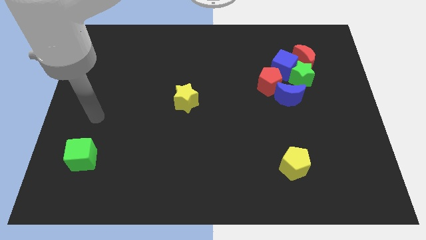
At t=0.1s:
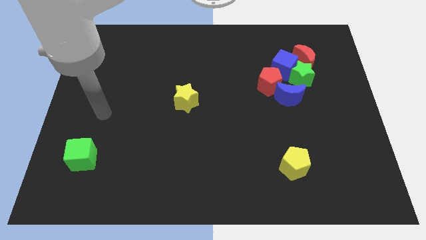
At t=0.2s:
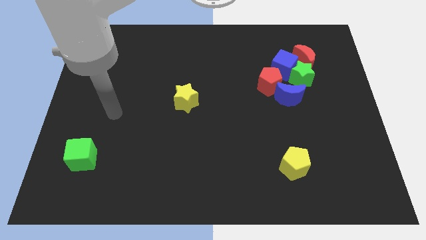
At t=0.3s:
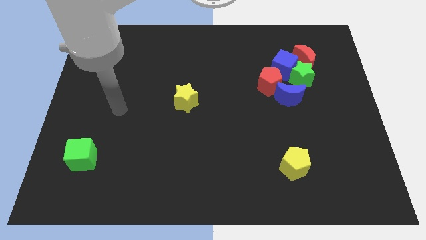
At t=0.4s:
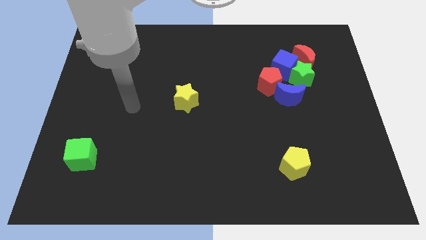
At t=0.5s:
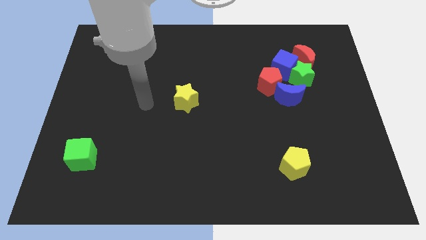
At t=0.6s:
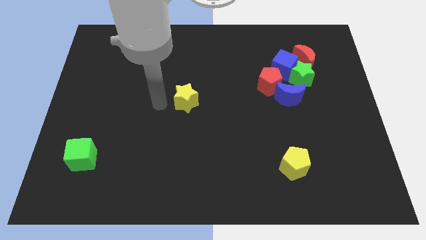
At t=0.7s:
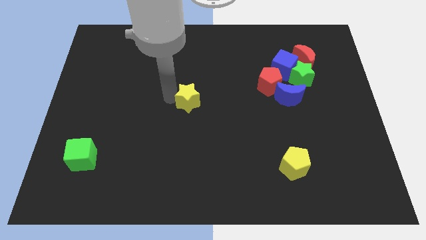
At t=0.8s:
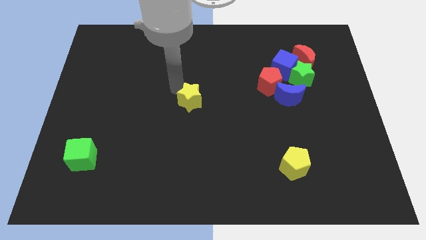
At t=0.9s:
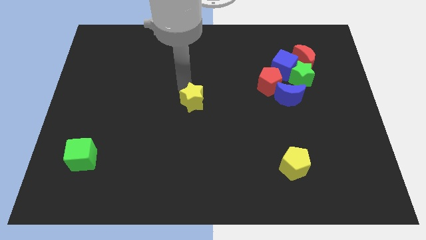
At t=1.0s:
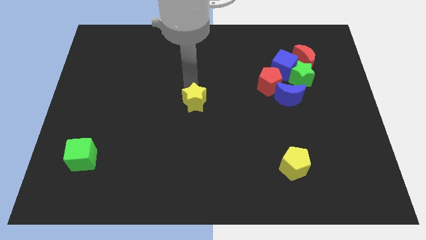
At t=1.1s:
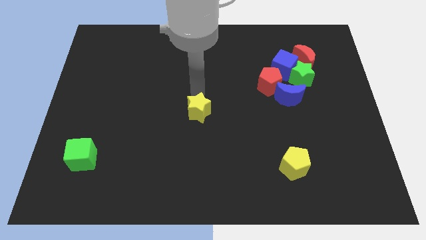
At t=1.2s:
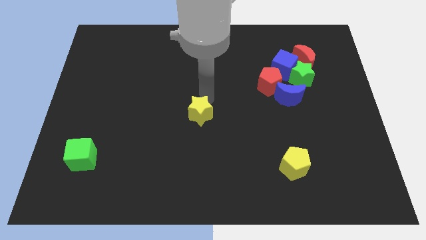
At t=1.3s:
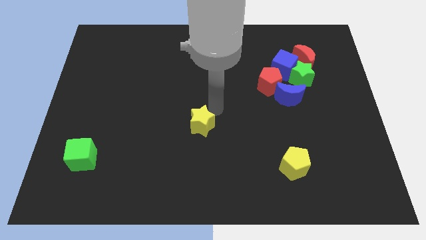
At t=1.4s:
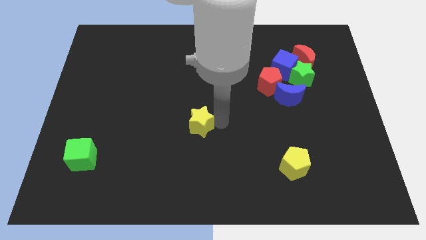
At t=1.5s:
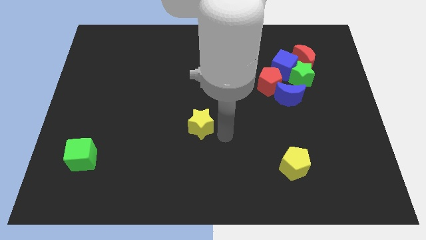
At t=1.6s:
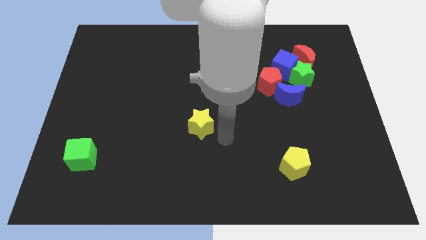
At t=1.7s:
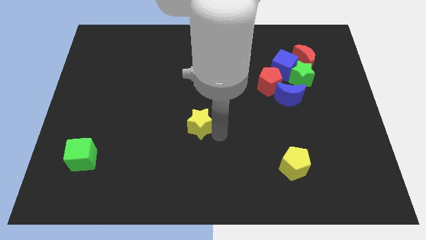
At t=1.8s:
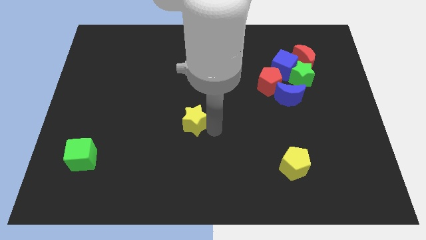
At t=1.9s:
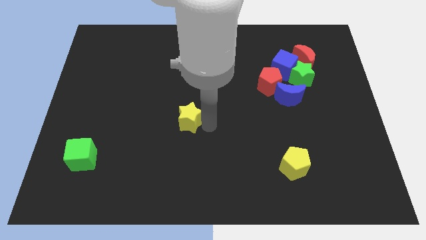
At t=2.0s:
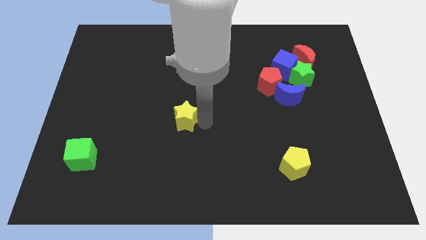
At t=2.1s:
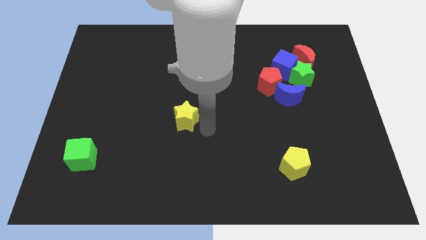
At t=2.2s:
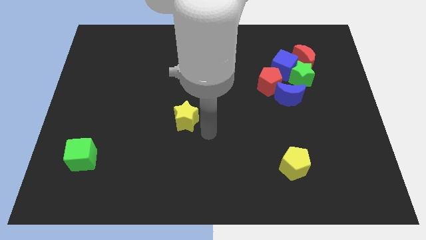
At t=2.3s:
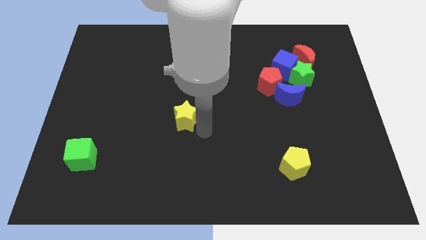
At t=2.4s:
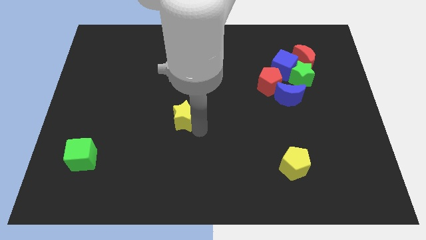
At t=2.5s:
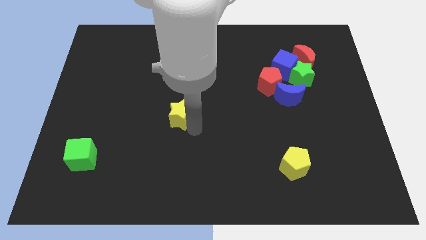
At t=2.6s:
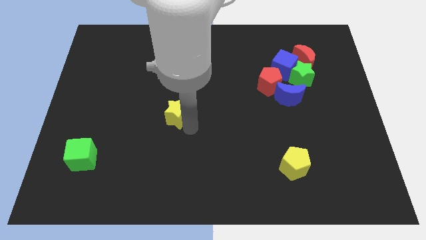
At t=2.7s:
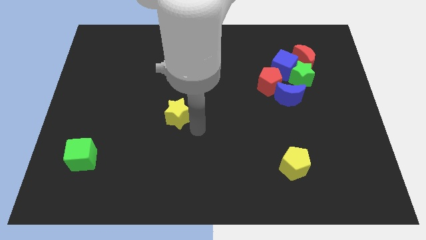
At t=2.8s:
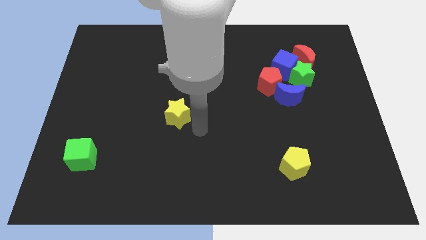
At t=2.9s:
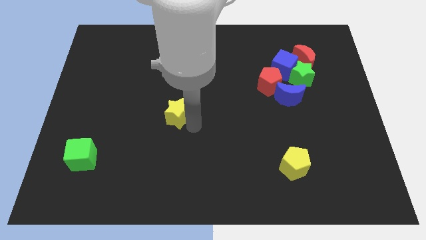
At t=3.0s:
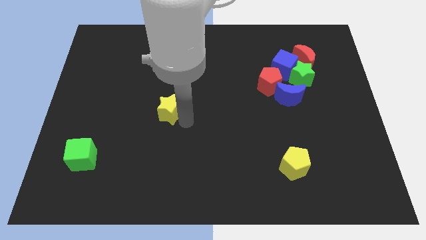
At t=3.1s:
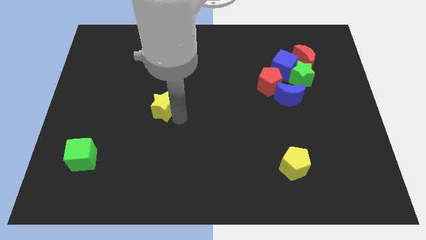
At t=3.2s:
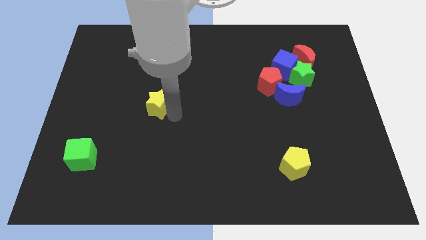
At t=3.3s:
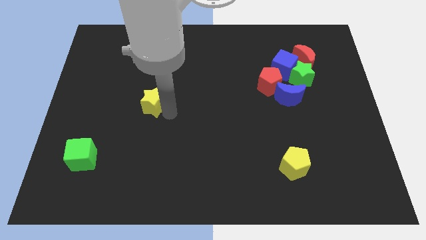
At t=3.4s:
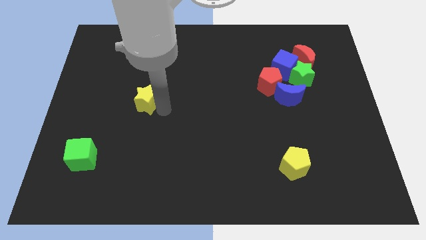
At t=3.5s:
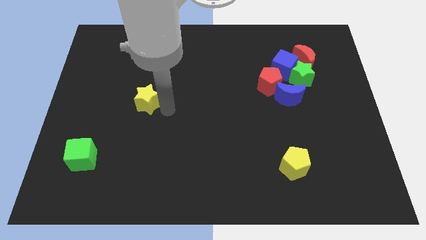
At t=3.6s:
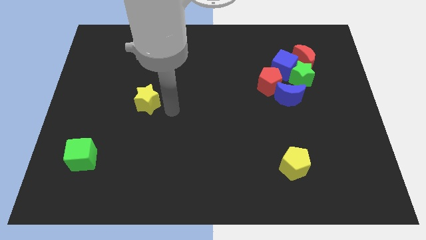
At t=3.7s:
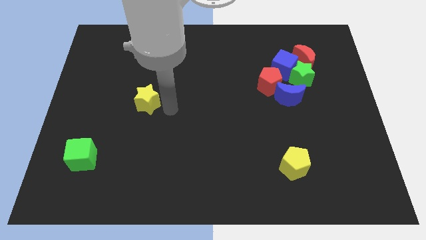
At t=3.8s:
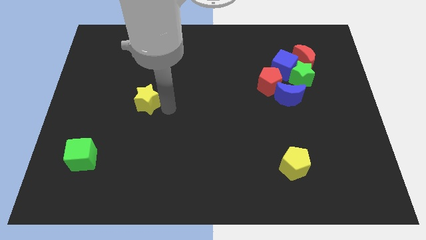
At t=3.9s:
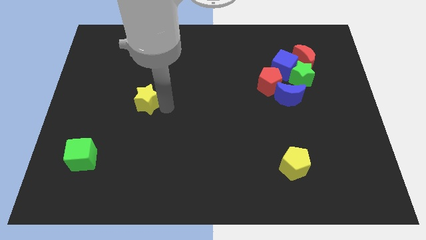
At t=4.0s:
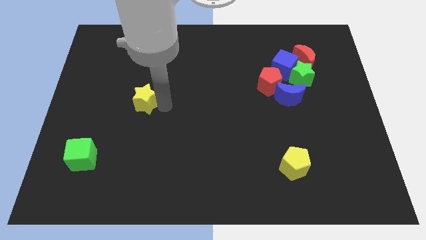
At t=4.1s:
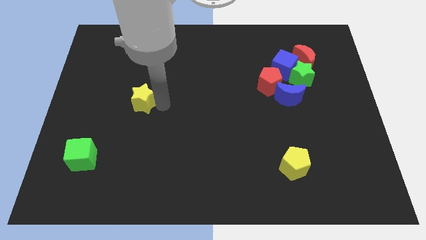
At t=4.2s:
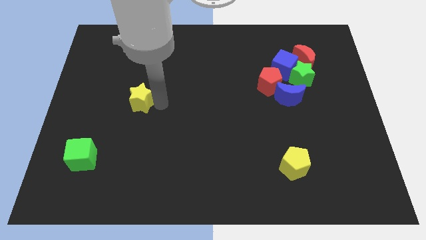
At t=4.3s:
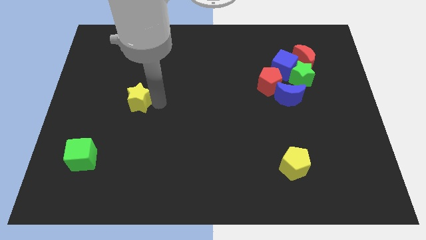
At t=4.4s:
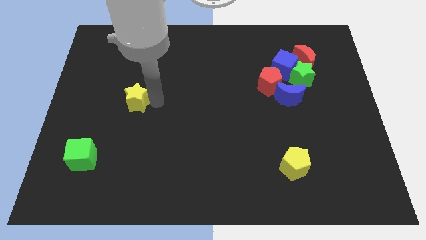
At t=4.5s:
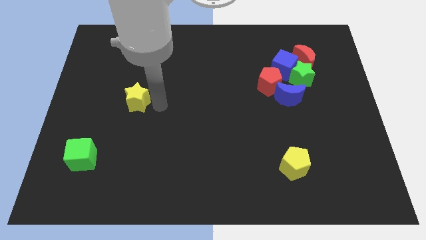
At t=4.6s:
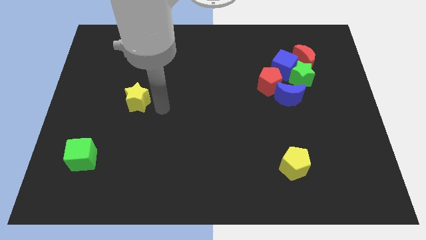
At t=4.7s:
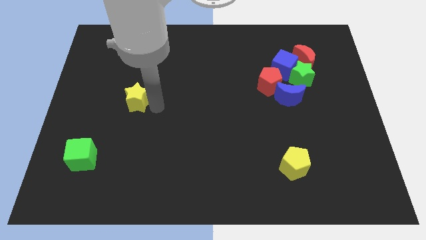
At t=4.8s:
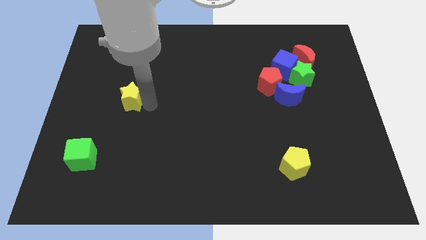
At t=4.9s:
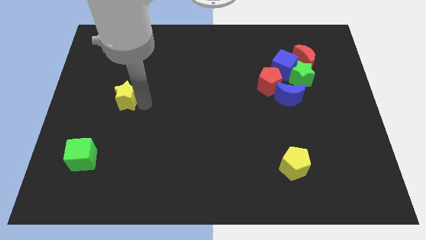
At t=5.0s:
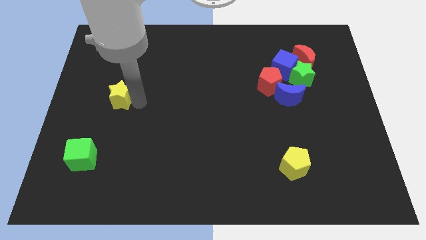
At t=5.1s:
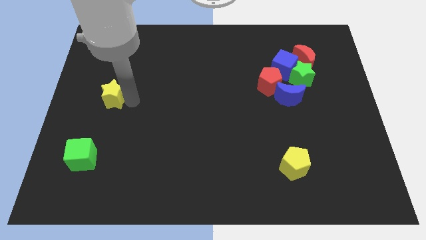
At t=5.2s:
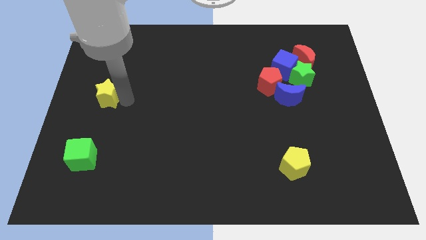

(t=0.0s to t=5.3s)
slide the yellow star to the left side of the board

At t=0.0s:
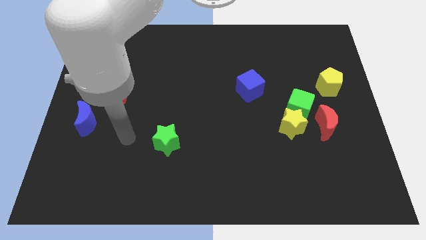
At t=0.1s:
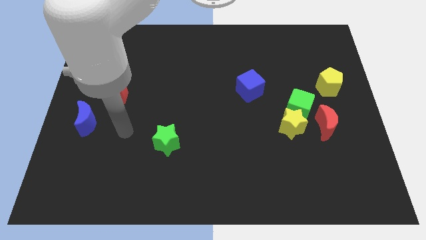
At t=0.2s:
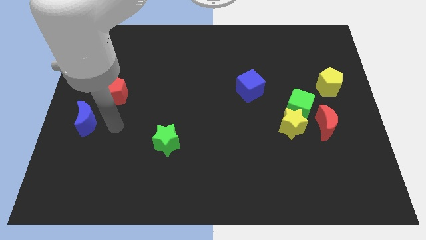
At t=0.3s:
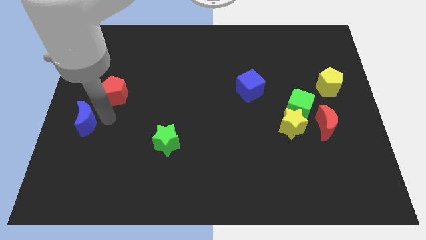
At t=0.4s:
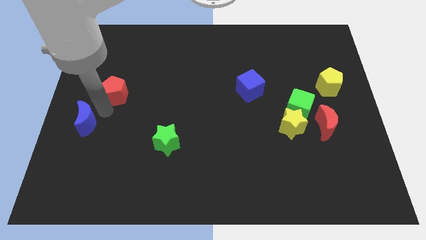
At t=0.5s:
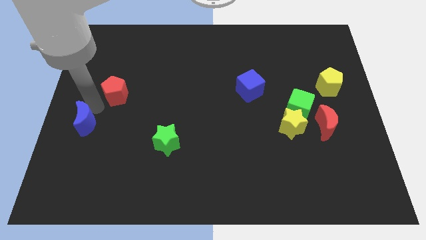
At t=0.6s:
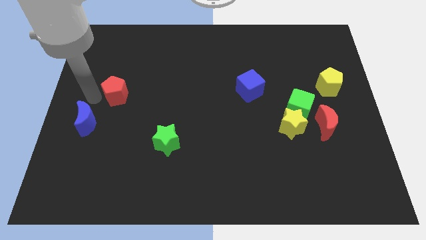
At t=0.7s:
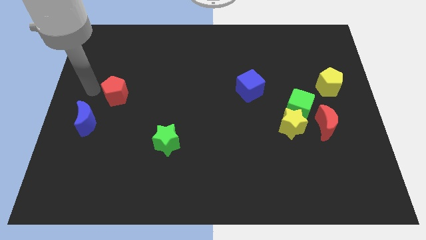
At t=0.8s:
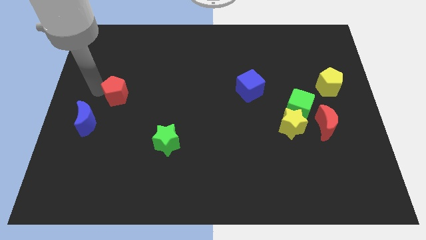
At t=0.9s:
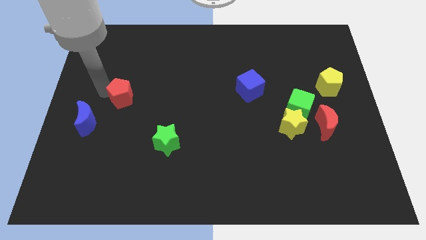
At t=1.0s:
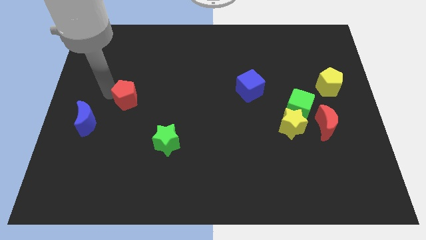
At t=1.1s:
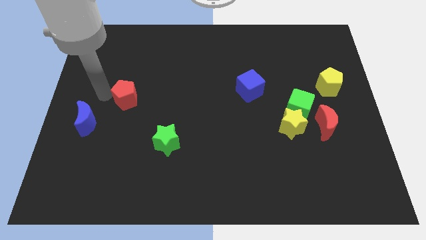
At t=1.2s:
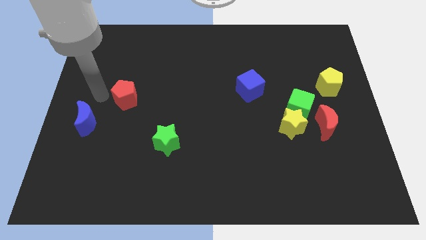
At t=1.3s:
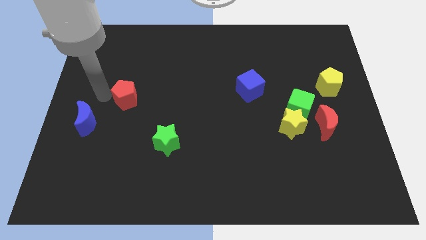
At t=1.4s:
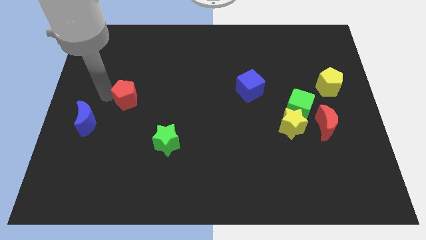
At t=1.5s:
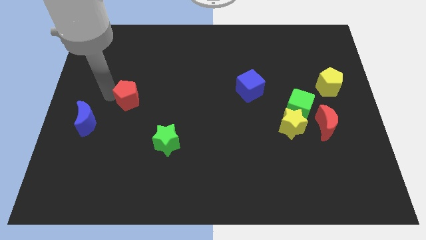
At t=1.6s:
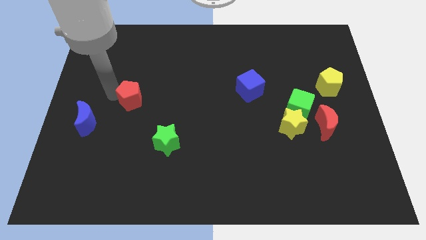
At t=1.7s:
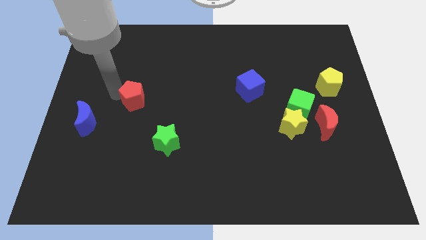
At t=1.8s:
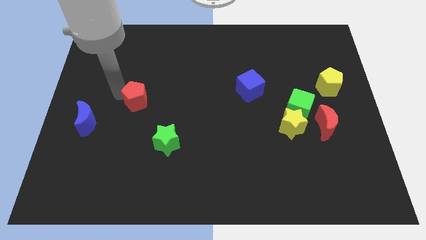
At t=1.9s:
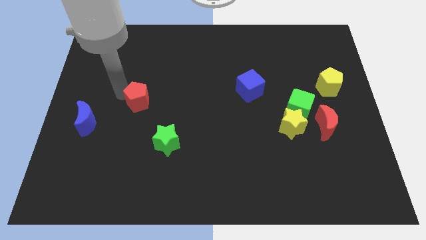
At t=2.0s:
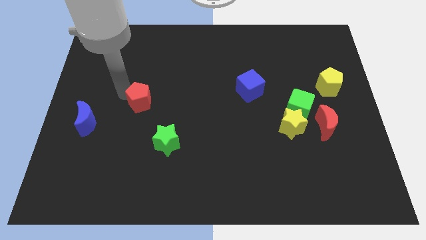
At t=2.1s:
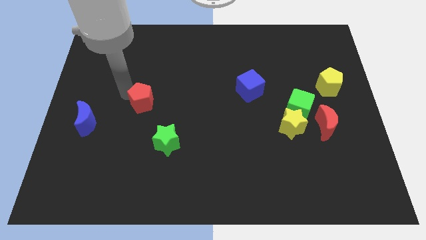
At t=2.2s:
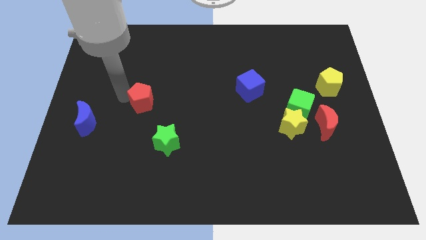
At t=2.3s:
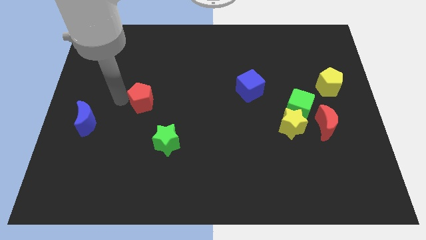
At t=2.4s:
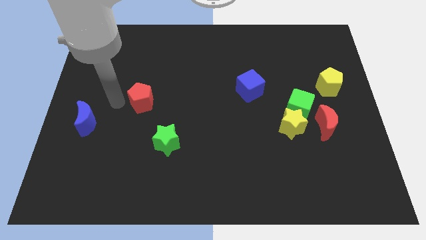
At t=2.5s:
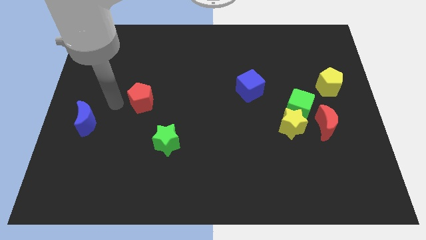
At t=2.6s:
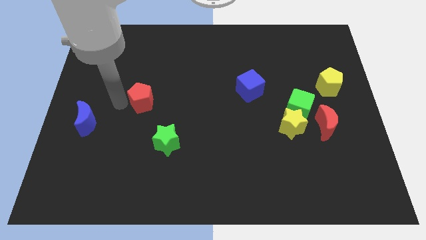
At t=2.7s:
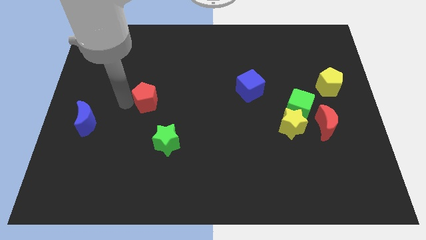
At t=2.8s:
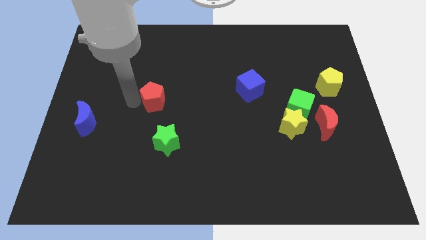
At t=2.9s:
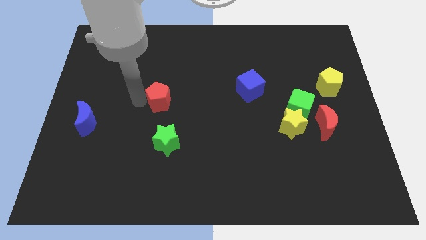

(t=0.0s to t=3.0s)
slide the red pentagon to the center of the board

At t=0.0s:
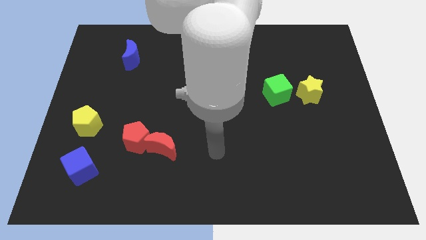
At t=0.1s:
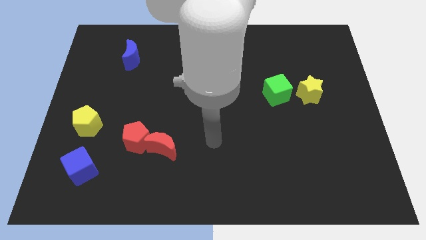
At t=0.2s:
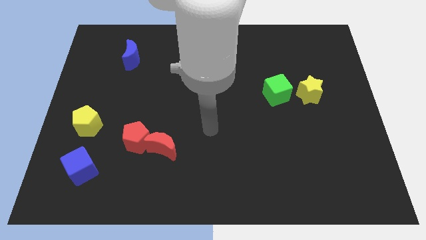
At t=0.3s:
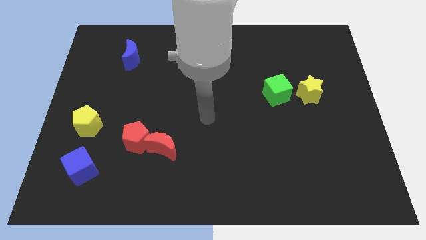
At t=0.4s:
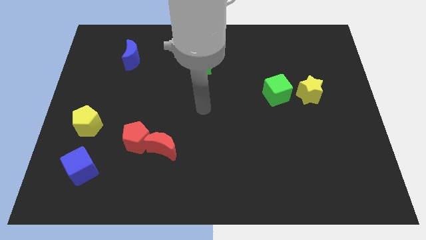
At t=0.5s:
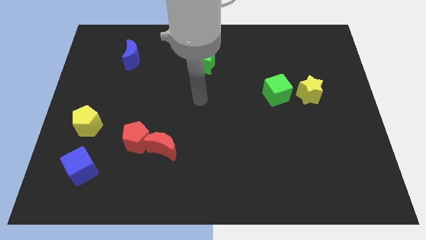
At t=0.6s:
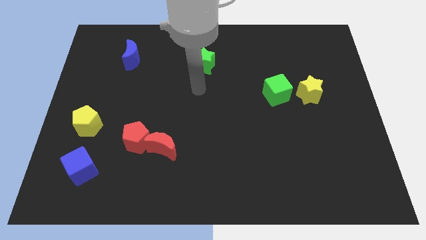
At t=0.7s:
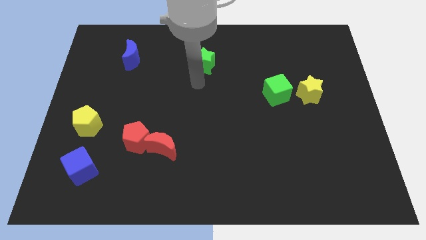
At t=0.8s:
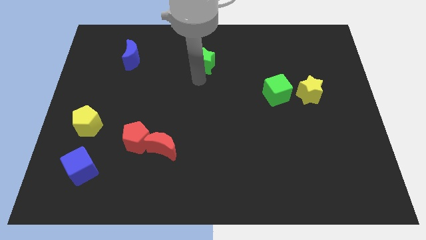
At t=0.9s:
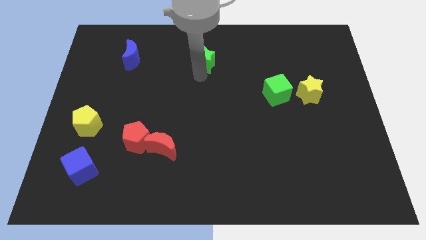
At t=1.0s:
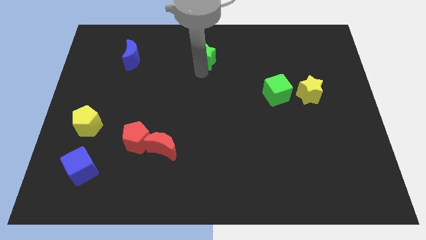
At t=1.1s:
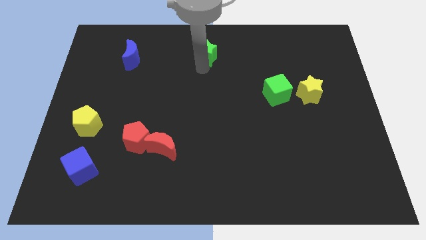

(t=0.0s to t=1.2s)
put the green star to the towards your base
